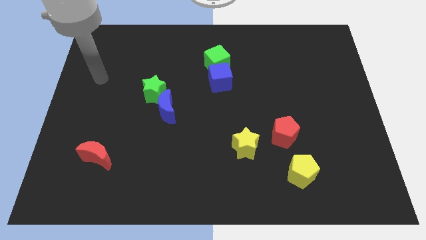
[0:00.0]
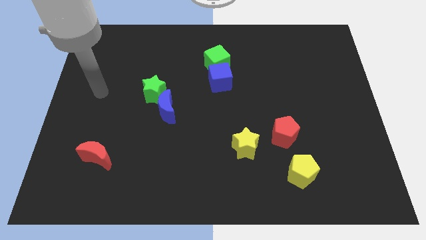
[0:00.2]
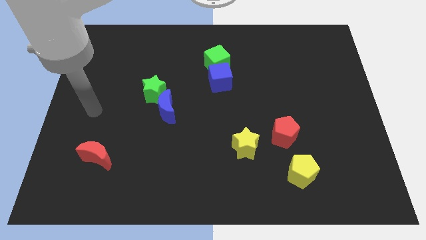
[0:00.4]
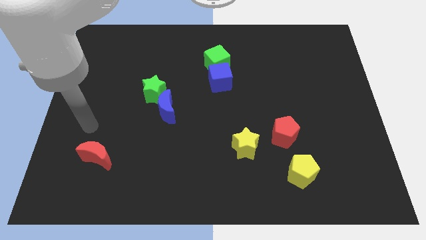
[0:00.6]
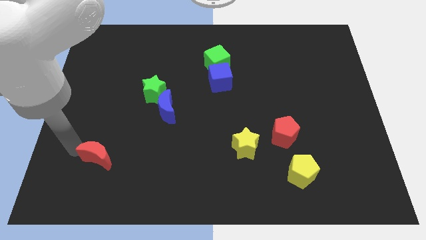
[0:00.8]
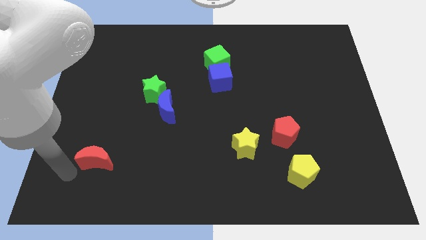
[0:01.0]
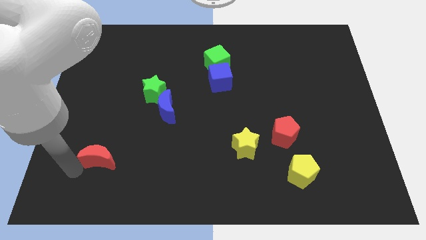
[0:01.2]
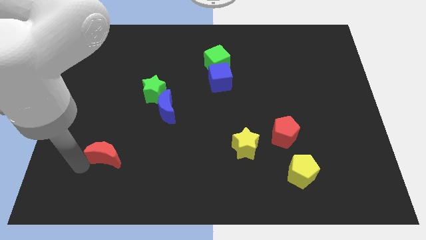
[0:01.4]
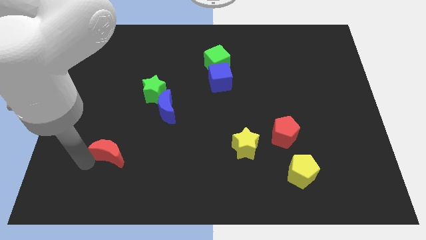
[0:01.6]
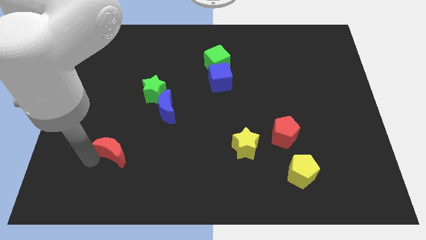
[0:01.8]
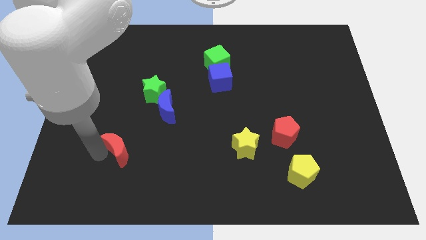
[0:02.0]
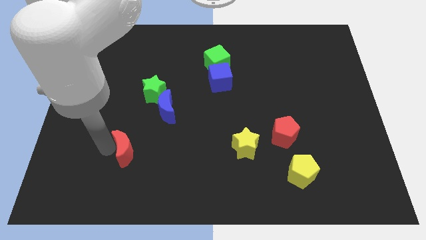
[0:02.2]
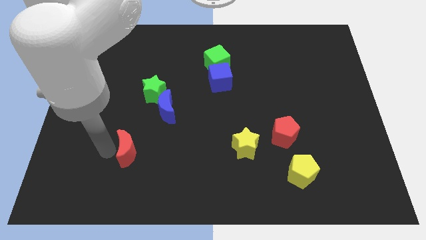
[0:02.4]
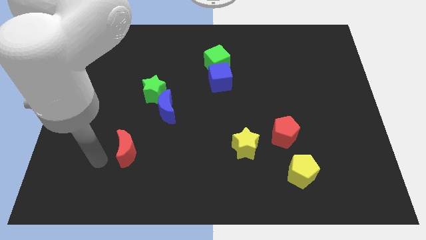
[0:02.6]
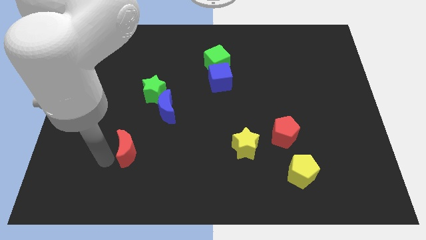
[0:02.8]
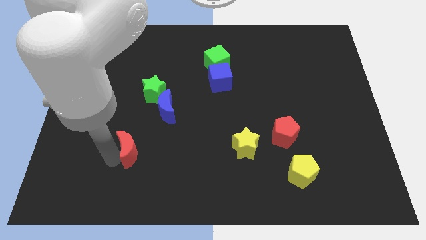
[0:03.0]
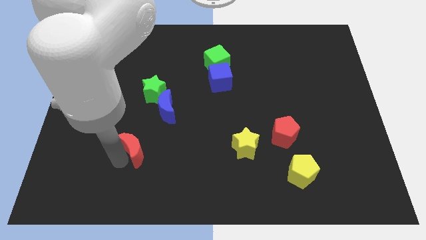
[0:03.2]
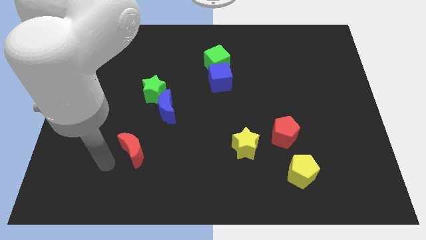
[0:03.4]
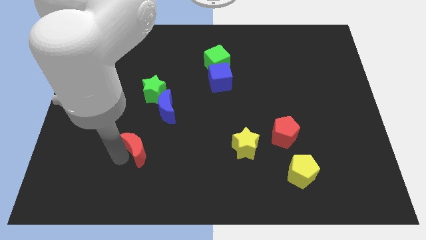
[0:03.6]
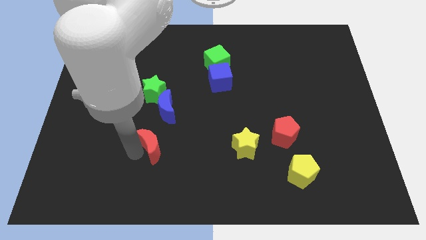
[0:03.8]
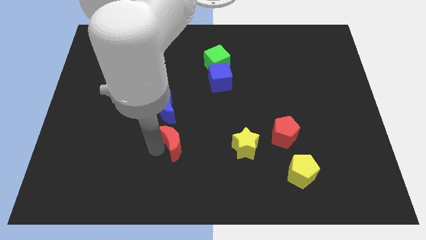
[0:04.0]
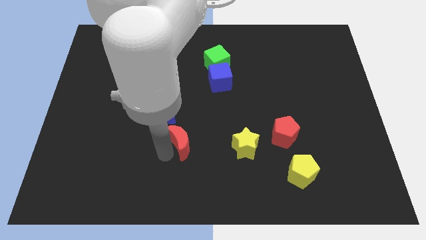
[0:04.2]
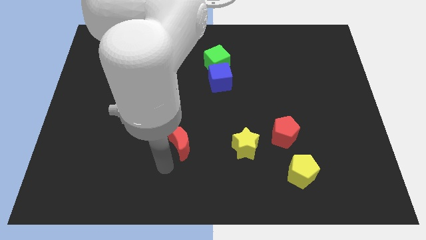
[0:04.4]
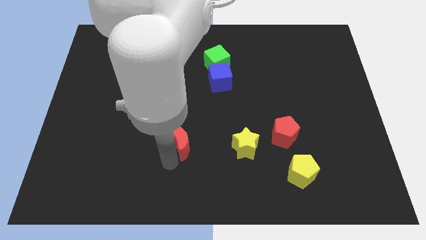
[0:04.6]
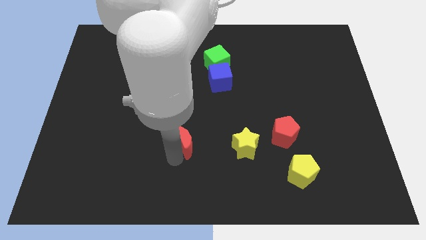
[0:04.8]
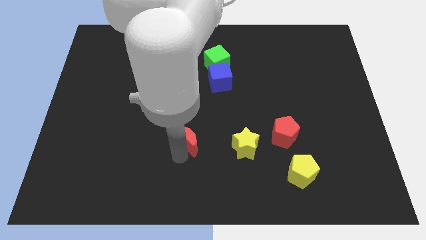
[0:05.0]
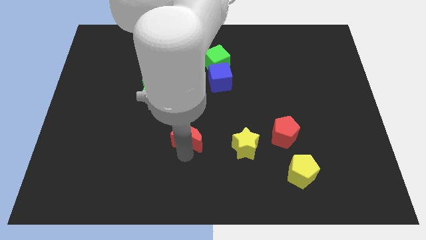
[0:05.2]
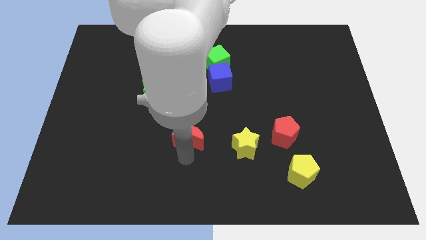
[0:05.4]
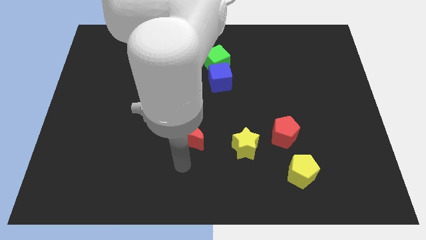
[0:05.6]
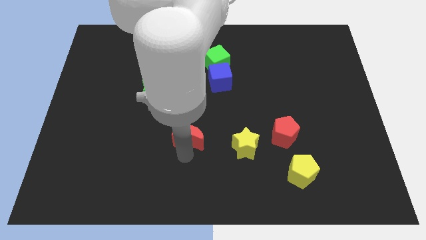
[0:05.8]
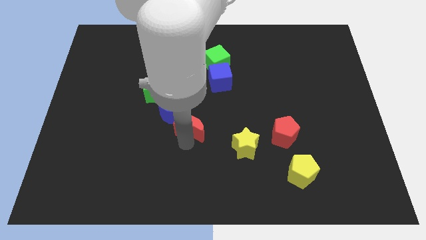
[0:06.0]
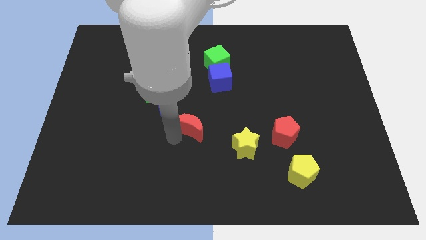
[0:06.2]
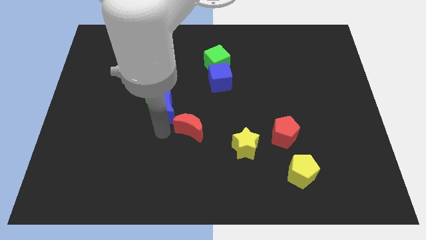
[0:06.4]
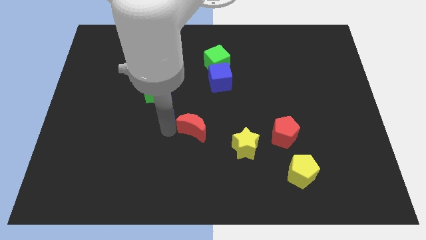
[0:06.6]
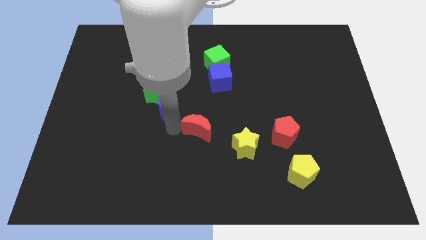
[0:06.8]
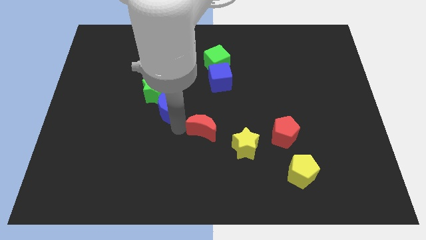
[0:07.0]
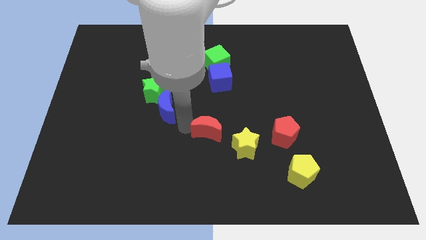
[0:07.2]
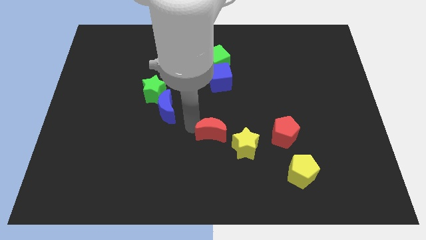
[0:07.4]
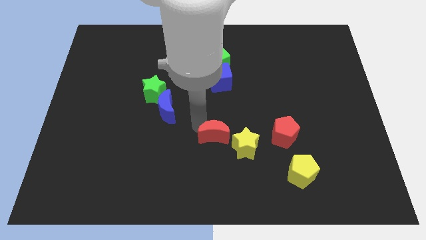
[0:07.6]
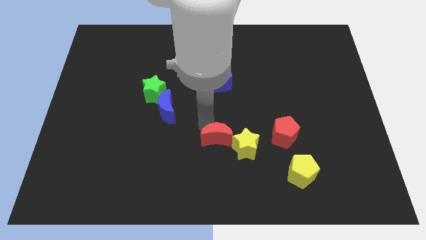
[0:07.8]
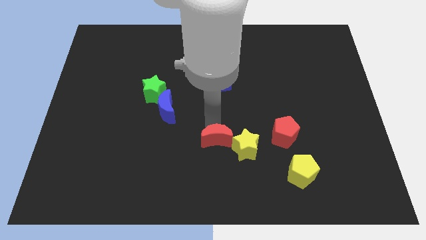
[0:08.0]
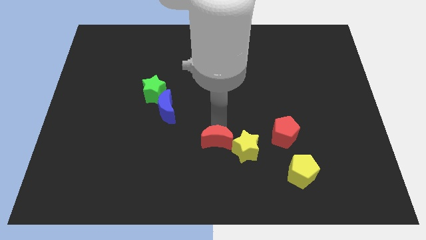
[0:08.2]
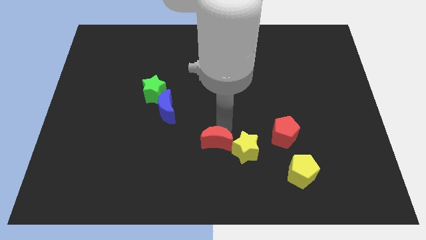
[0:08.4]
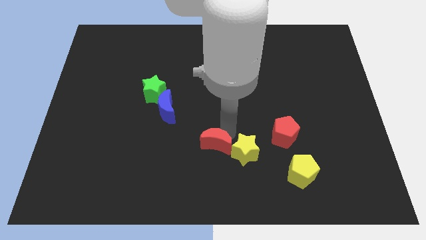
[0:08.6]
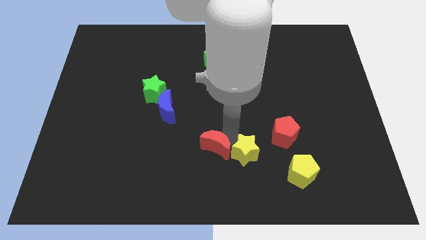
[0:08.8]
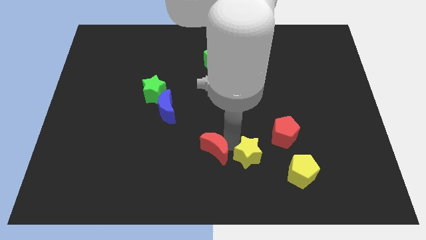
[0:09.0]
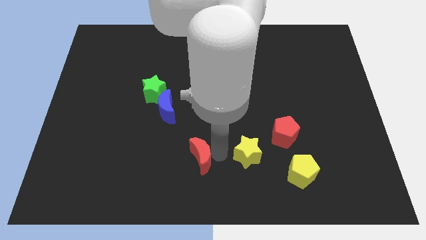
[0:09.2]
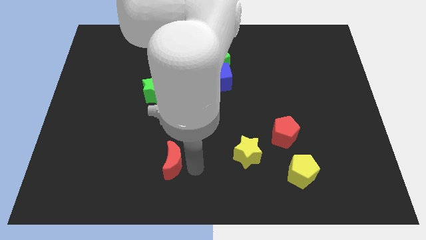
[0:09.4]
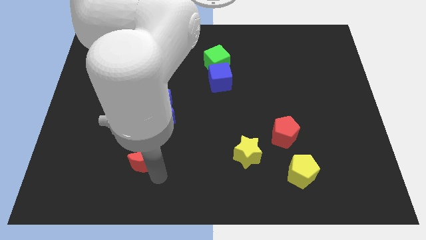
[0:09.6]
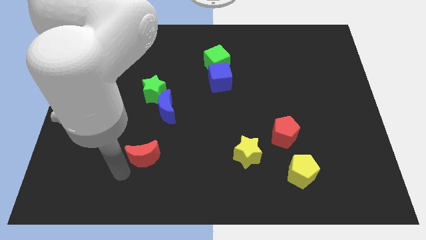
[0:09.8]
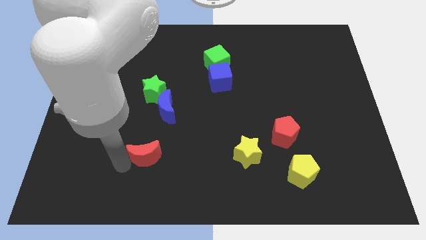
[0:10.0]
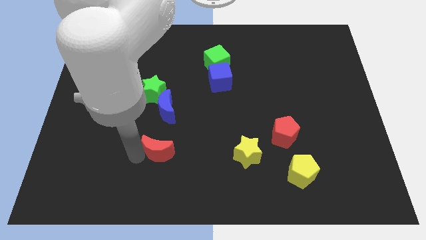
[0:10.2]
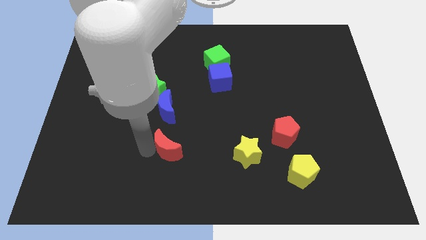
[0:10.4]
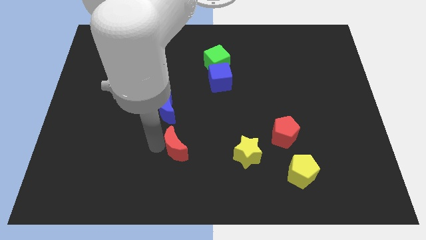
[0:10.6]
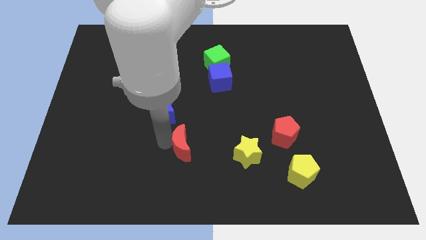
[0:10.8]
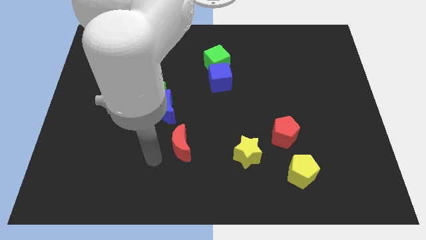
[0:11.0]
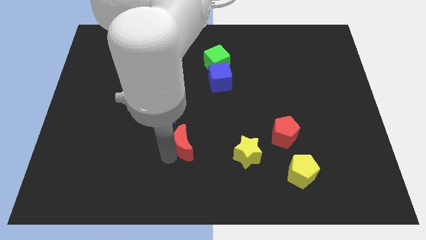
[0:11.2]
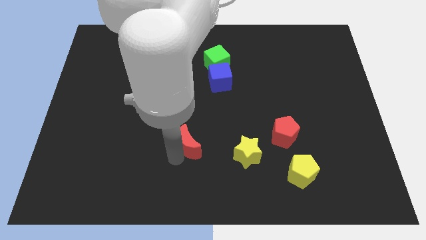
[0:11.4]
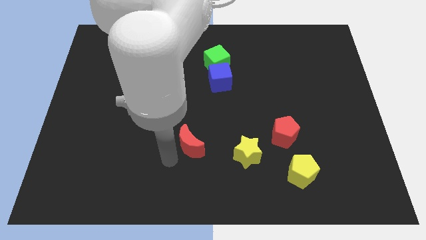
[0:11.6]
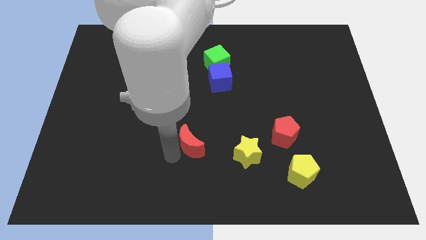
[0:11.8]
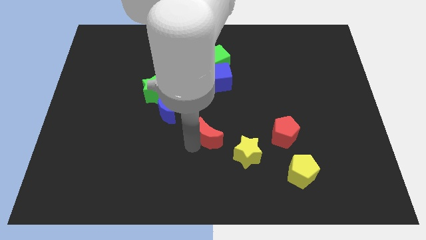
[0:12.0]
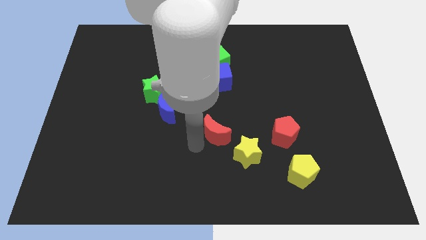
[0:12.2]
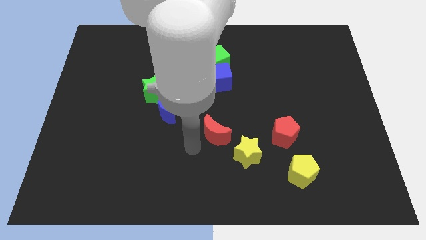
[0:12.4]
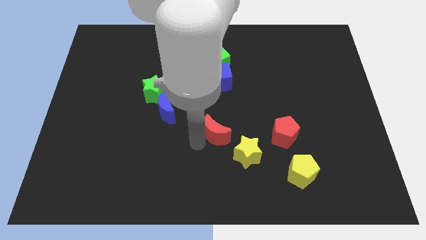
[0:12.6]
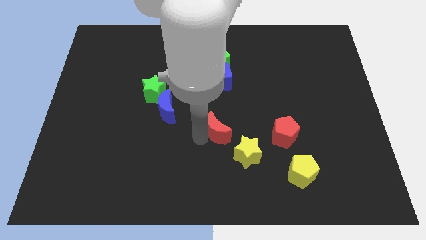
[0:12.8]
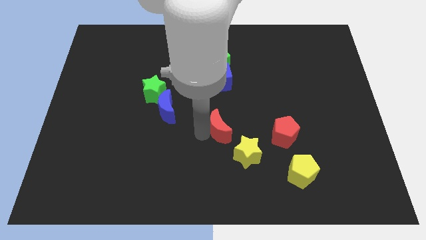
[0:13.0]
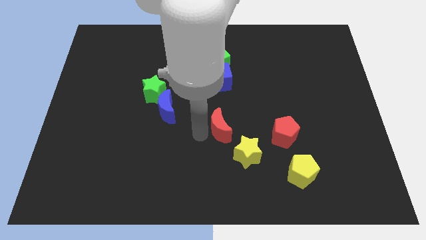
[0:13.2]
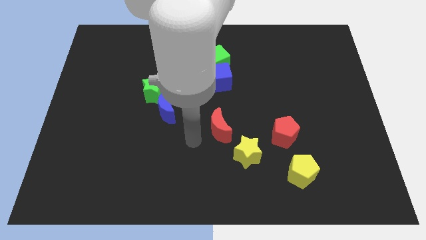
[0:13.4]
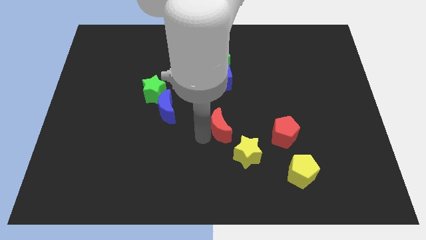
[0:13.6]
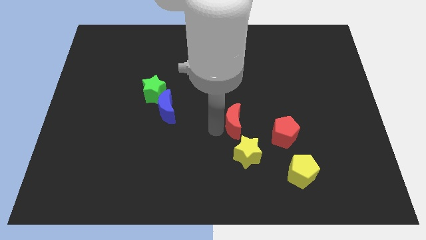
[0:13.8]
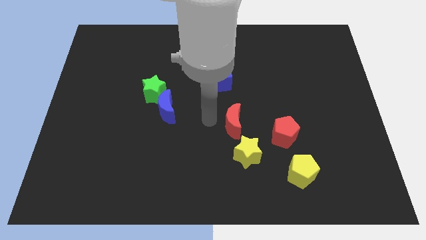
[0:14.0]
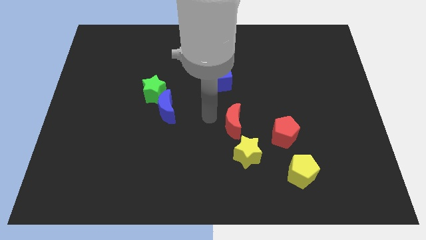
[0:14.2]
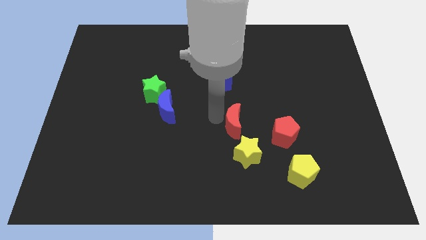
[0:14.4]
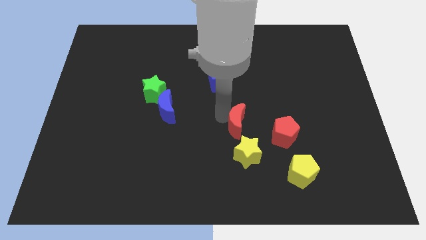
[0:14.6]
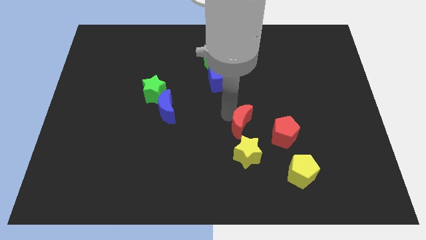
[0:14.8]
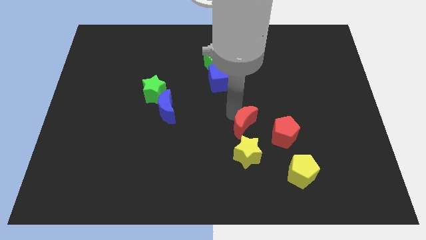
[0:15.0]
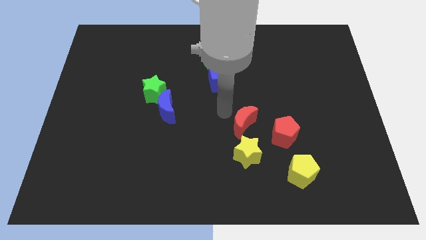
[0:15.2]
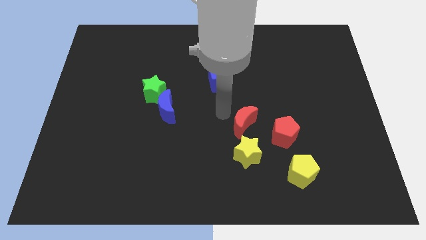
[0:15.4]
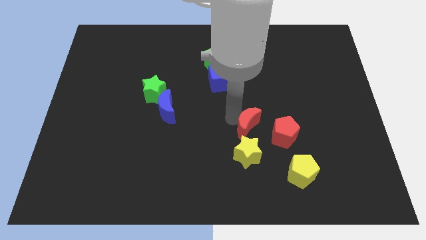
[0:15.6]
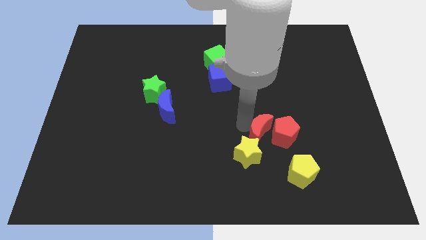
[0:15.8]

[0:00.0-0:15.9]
push the red moon to the red pentagon
